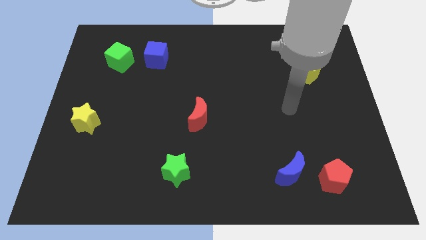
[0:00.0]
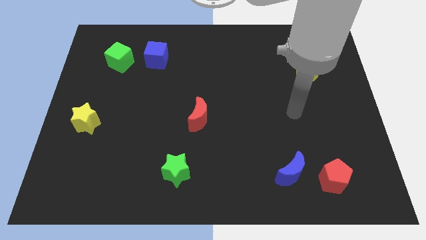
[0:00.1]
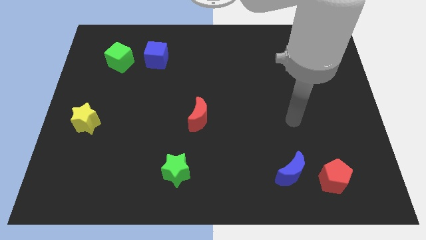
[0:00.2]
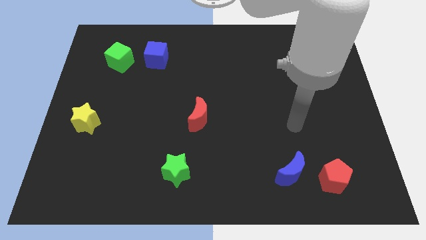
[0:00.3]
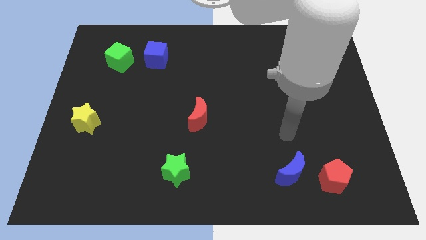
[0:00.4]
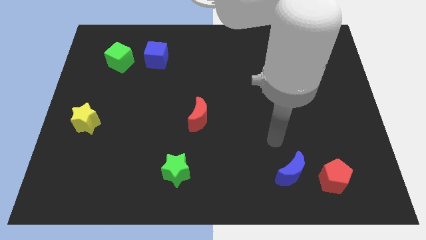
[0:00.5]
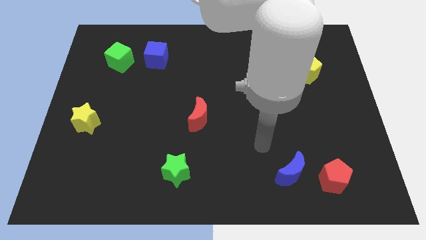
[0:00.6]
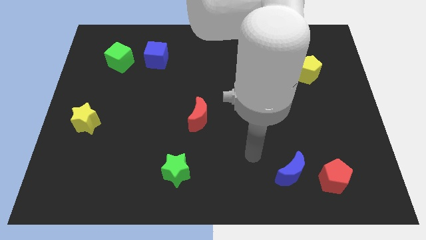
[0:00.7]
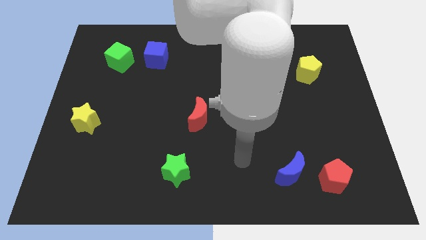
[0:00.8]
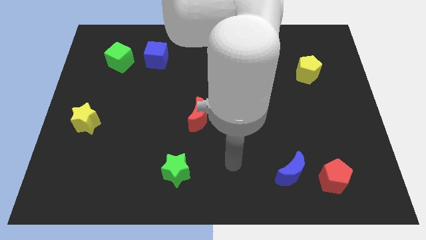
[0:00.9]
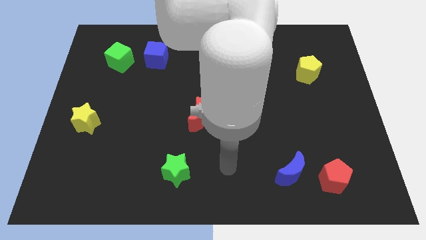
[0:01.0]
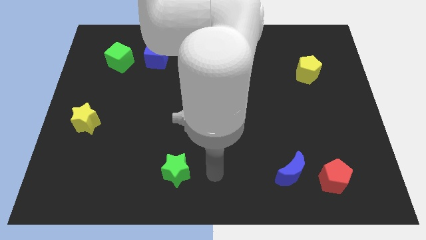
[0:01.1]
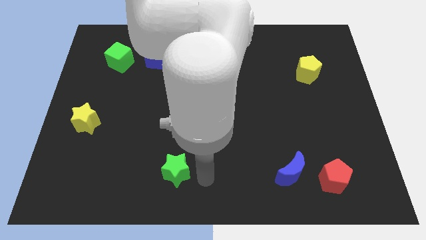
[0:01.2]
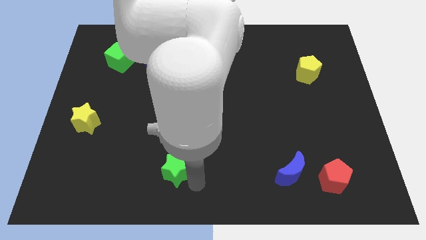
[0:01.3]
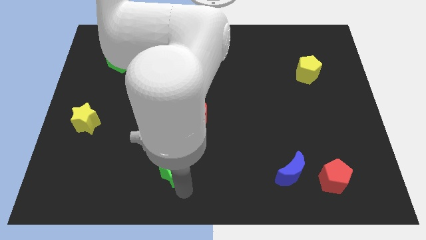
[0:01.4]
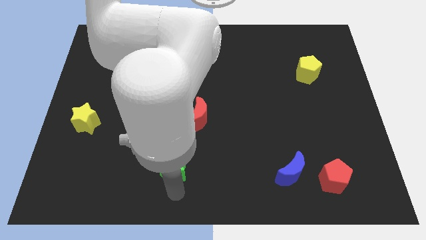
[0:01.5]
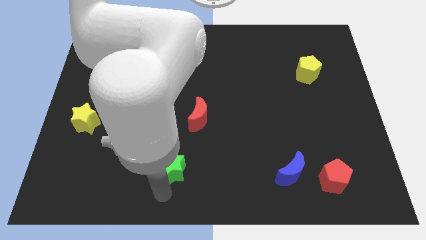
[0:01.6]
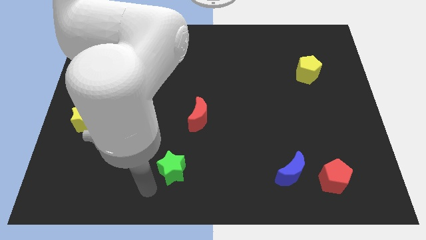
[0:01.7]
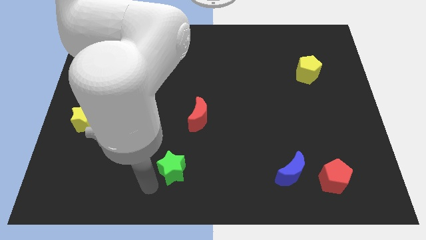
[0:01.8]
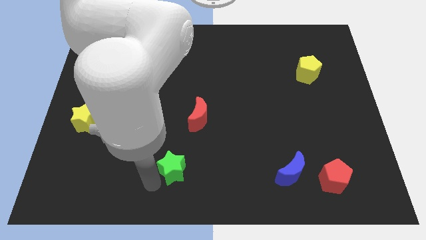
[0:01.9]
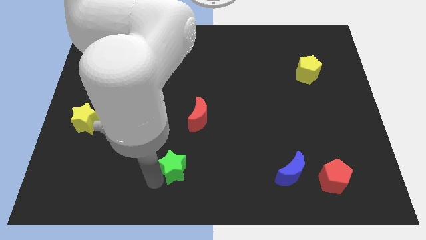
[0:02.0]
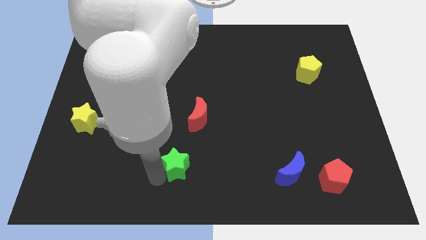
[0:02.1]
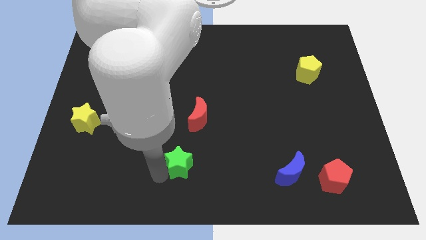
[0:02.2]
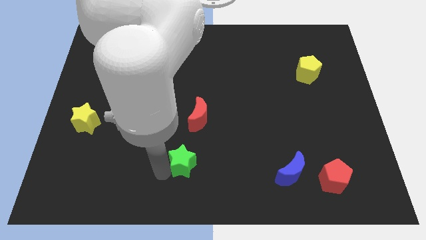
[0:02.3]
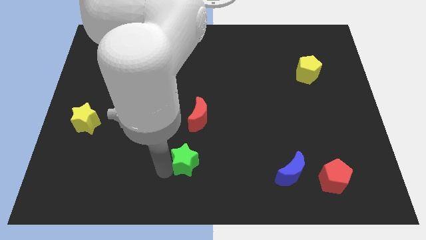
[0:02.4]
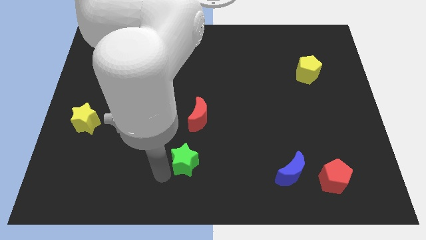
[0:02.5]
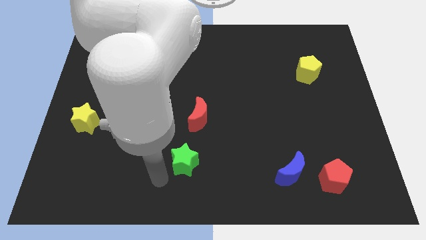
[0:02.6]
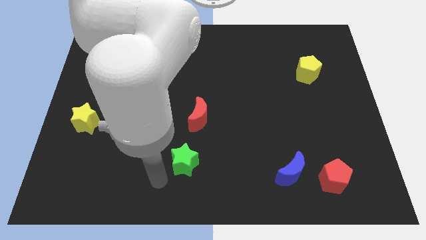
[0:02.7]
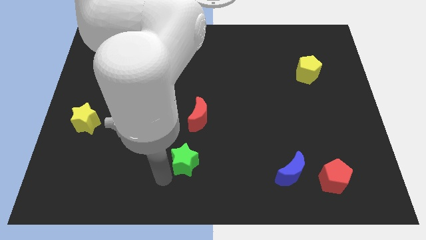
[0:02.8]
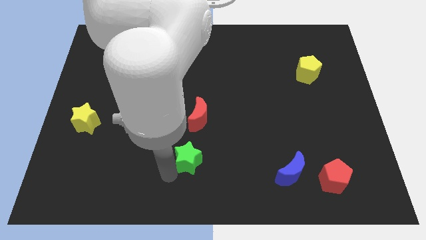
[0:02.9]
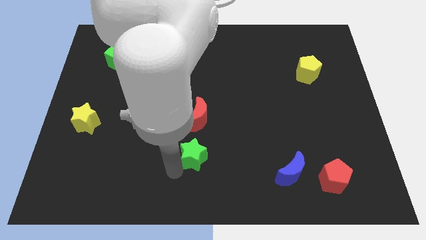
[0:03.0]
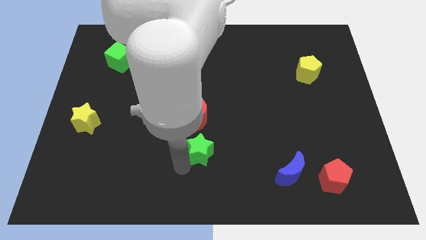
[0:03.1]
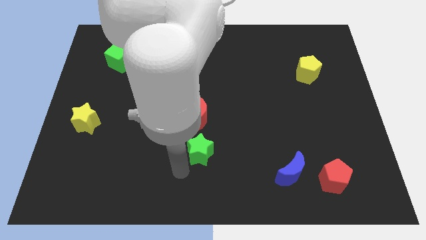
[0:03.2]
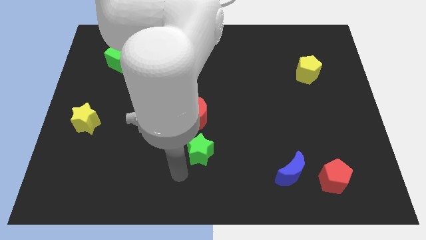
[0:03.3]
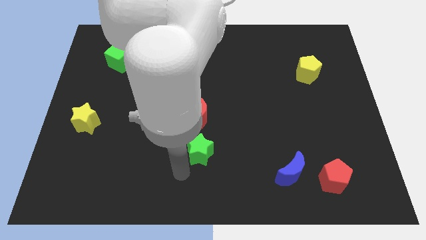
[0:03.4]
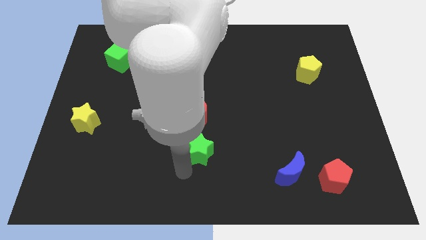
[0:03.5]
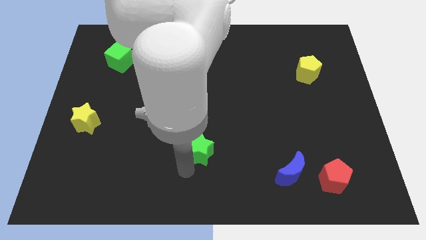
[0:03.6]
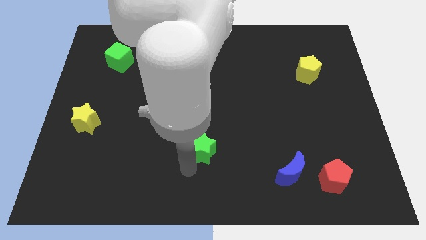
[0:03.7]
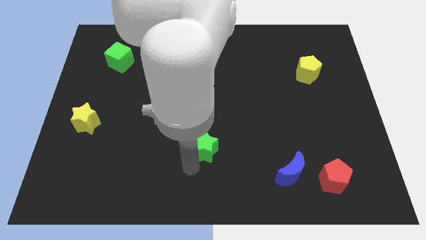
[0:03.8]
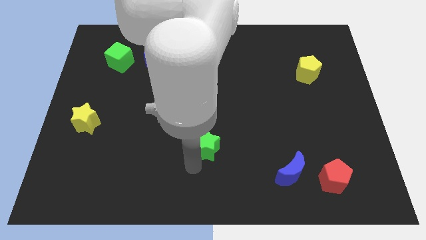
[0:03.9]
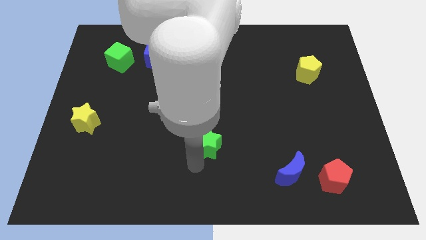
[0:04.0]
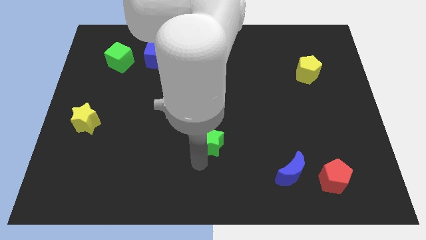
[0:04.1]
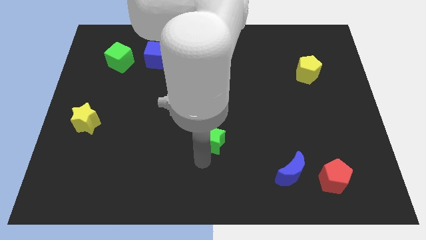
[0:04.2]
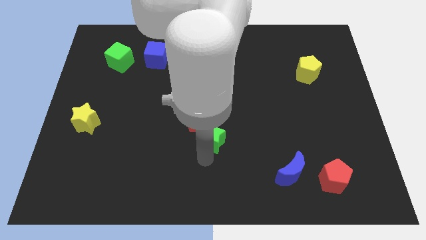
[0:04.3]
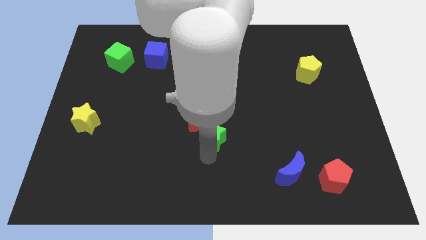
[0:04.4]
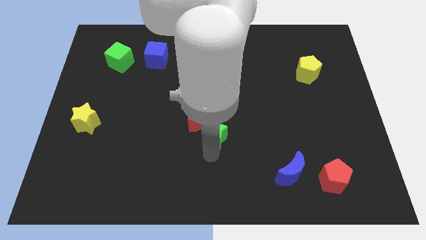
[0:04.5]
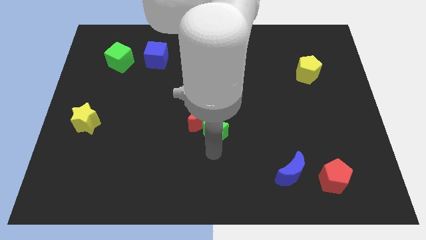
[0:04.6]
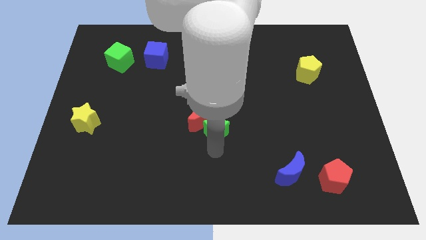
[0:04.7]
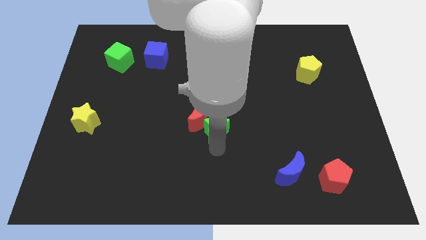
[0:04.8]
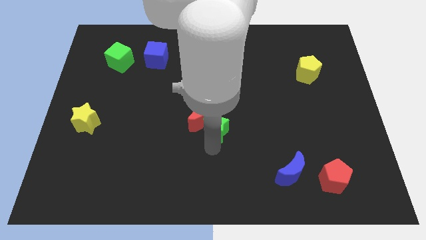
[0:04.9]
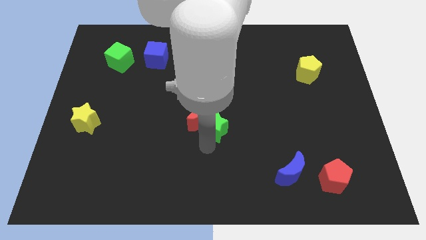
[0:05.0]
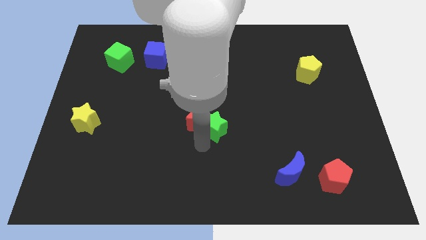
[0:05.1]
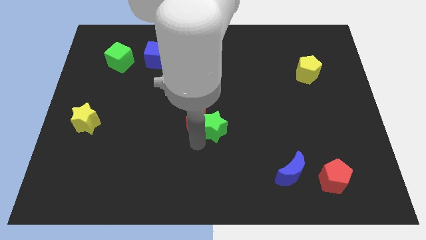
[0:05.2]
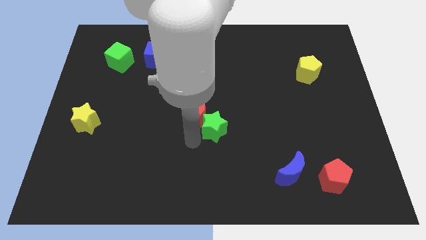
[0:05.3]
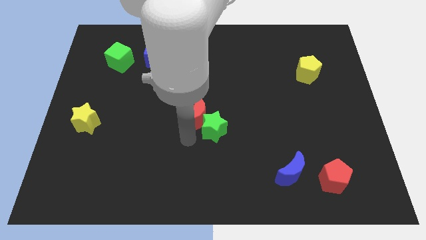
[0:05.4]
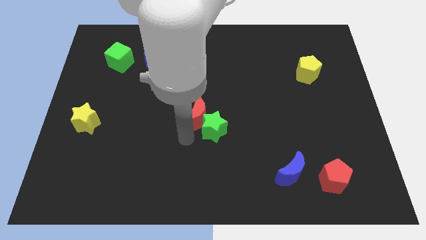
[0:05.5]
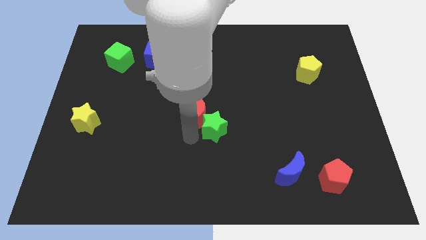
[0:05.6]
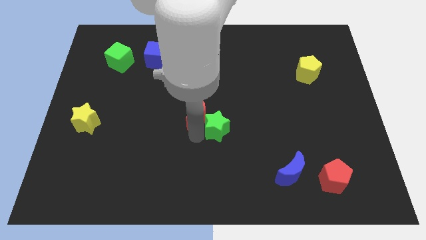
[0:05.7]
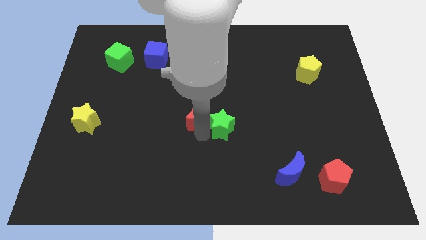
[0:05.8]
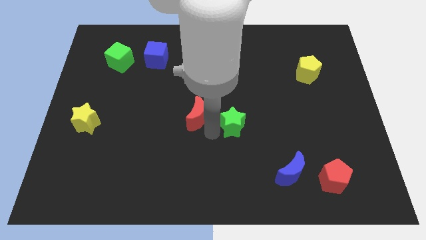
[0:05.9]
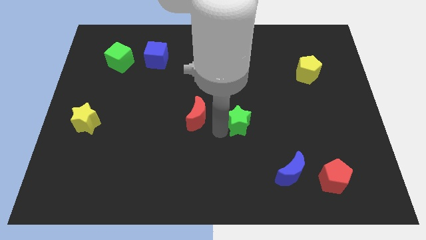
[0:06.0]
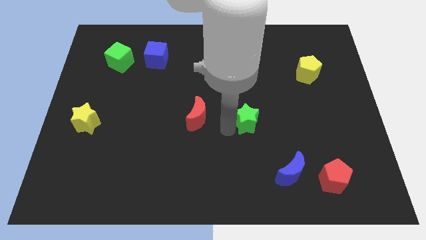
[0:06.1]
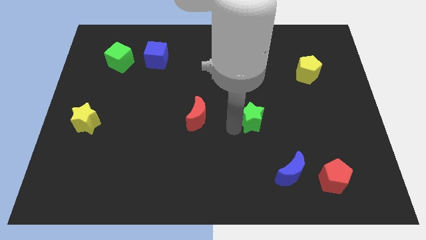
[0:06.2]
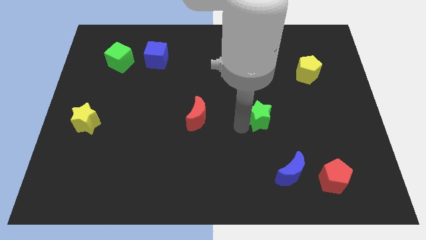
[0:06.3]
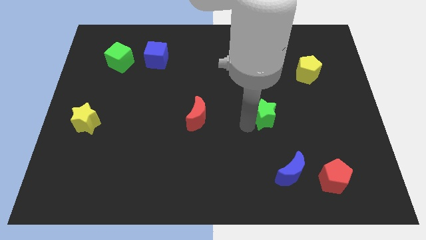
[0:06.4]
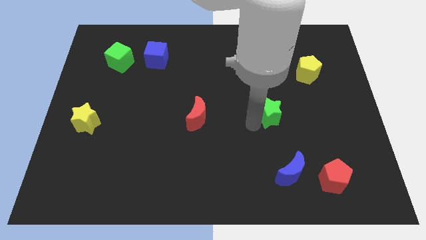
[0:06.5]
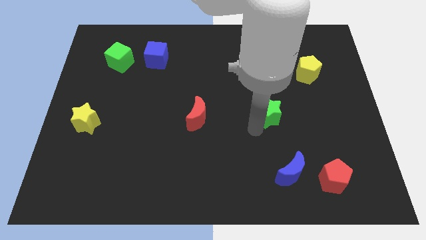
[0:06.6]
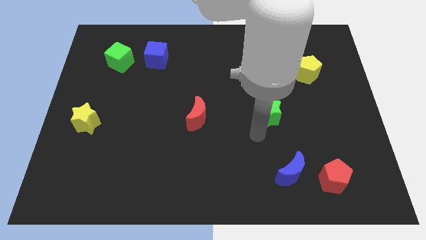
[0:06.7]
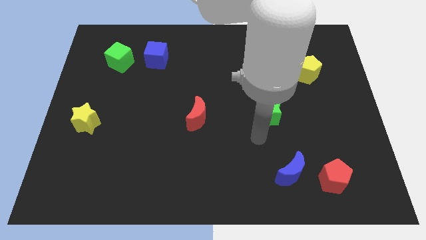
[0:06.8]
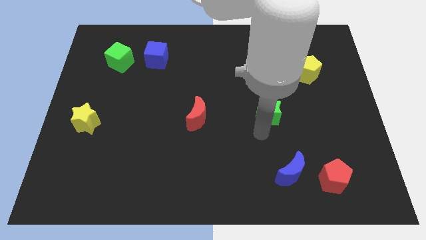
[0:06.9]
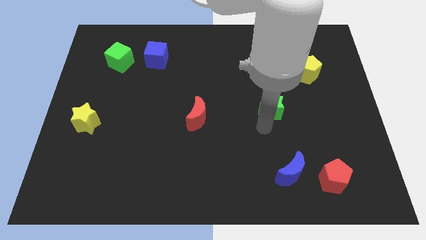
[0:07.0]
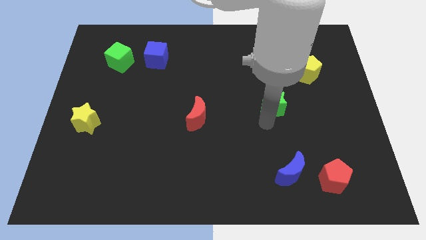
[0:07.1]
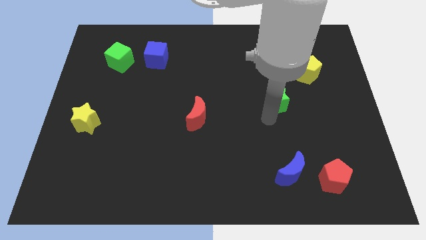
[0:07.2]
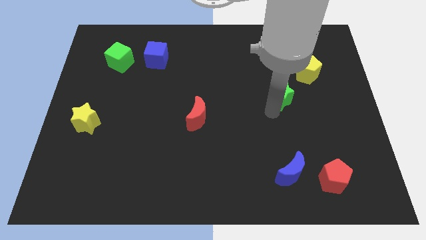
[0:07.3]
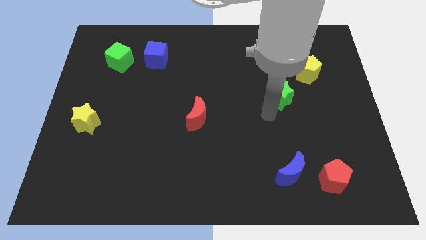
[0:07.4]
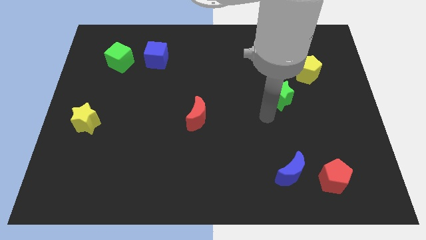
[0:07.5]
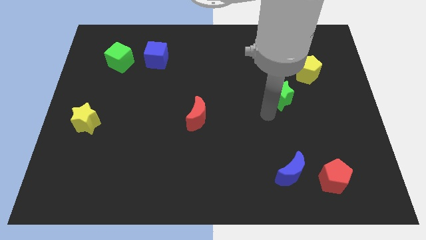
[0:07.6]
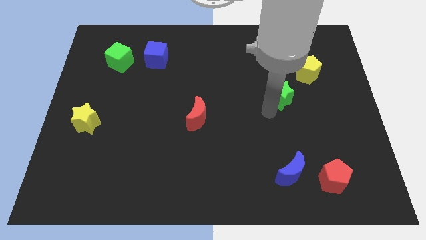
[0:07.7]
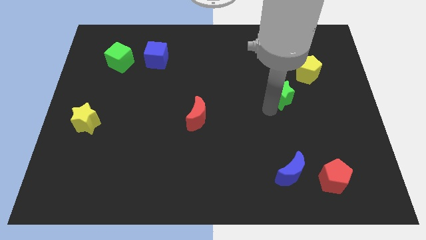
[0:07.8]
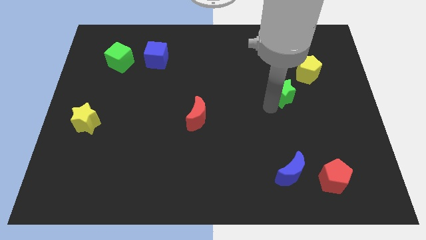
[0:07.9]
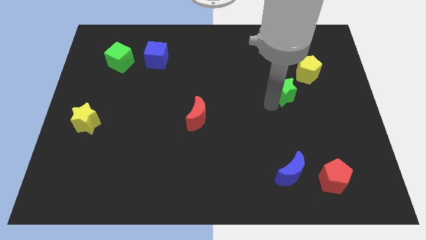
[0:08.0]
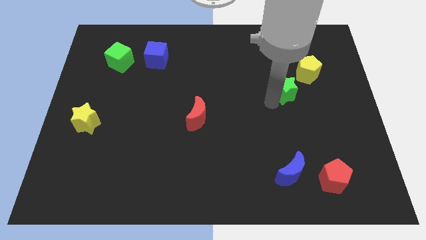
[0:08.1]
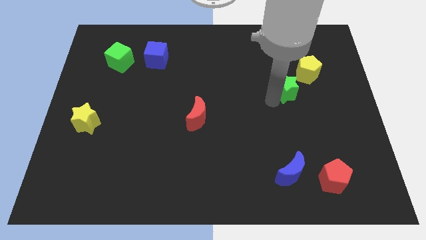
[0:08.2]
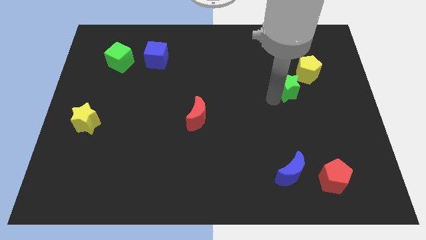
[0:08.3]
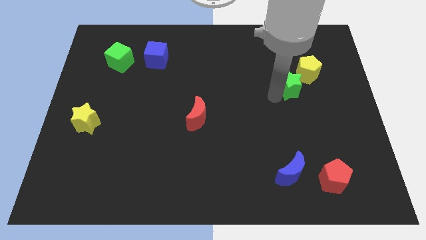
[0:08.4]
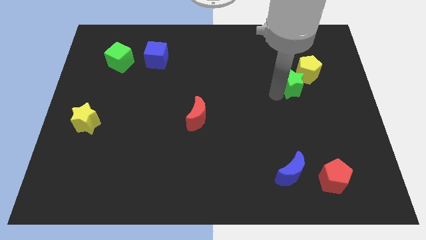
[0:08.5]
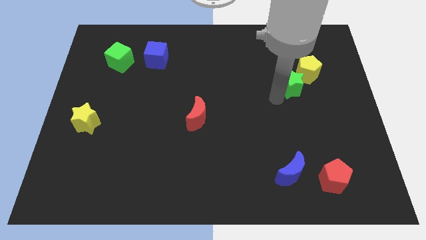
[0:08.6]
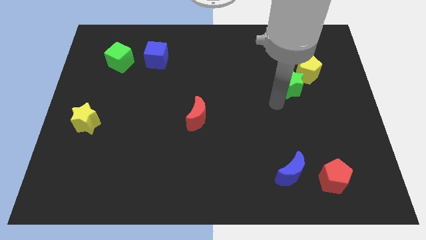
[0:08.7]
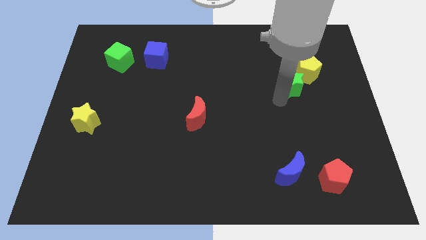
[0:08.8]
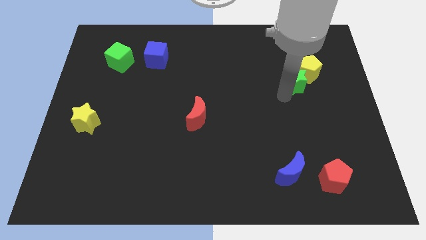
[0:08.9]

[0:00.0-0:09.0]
put the green star next to the yellow pentagon
